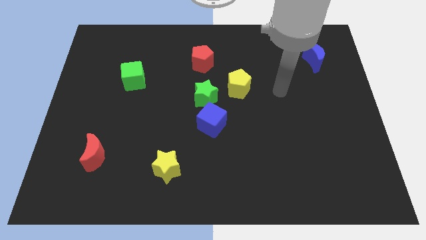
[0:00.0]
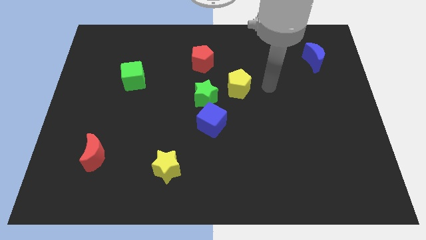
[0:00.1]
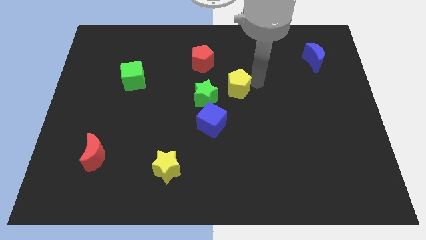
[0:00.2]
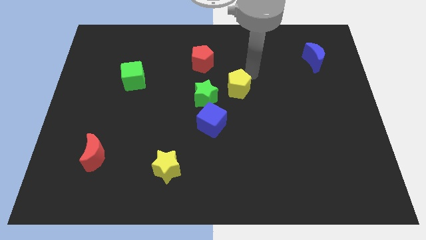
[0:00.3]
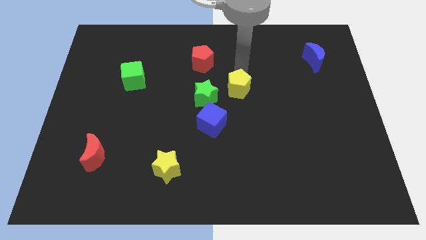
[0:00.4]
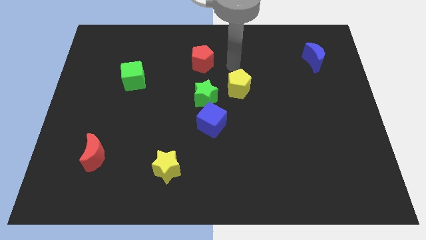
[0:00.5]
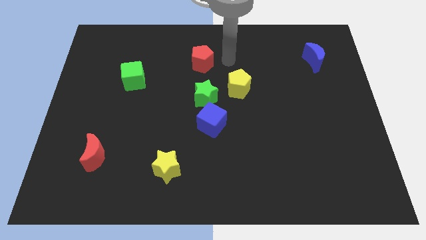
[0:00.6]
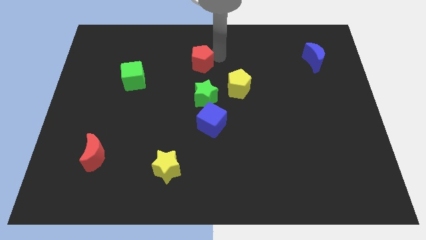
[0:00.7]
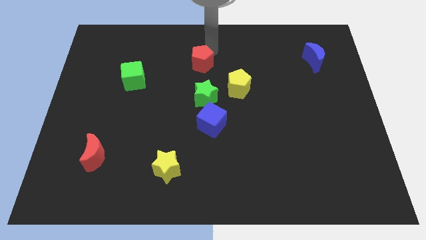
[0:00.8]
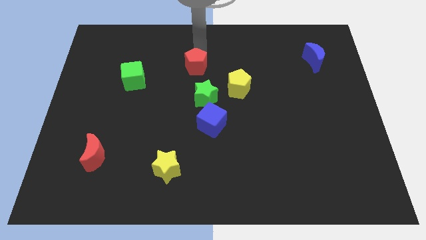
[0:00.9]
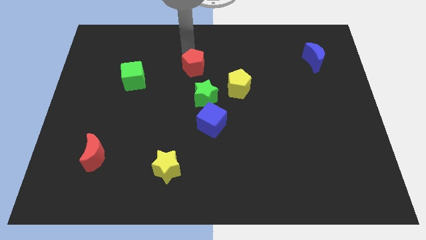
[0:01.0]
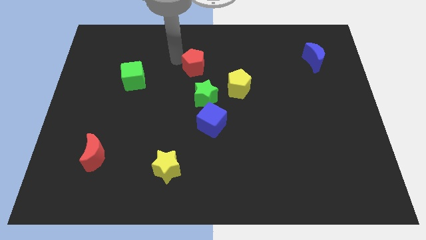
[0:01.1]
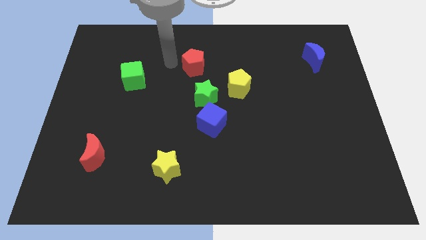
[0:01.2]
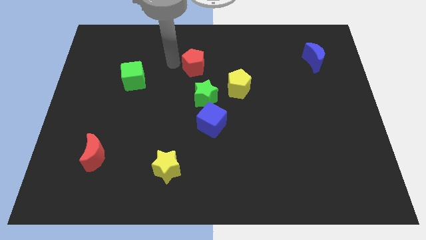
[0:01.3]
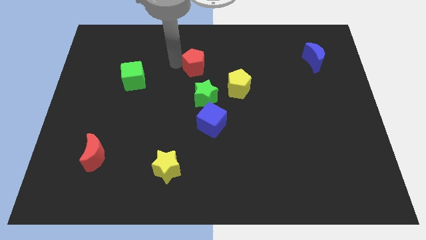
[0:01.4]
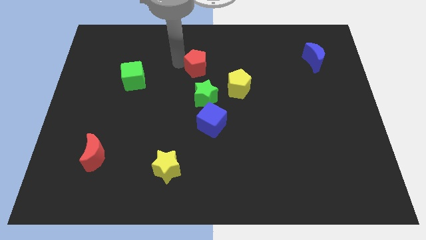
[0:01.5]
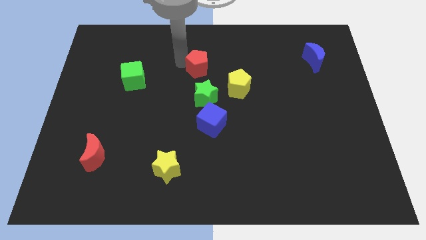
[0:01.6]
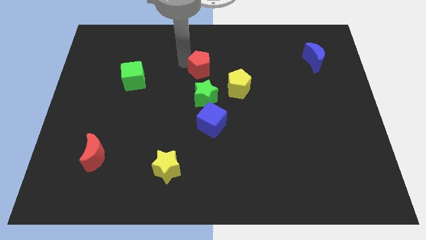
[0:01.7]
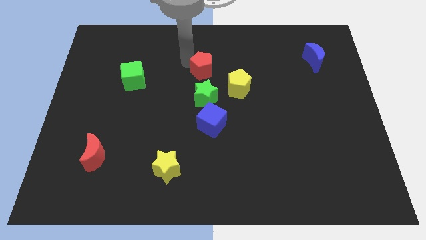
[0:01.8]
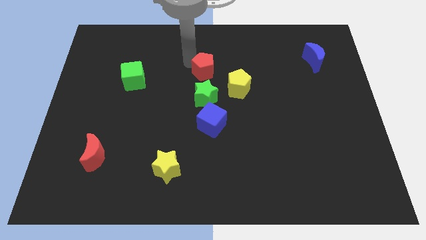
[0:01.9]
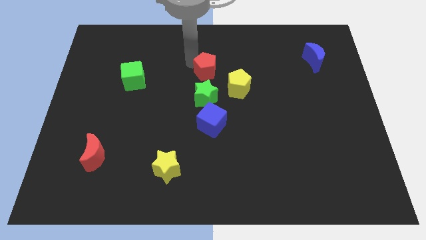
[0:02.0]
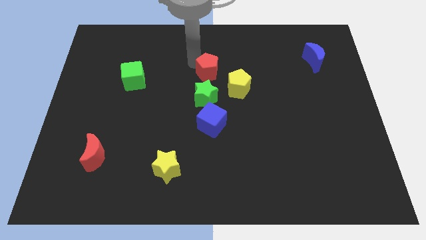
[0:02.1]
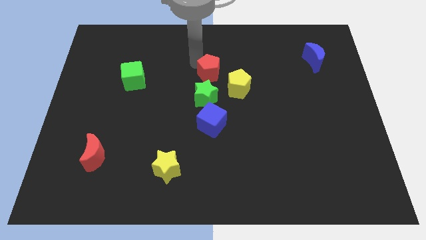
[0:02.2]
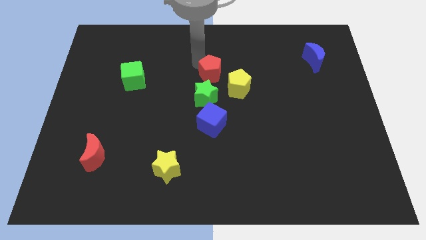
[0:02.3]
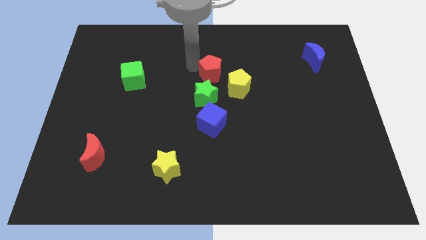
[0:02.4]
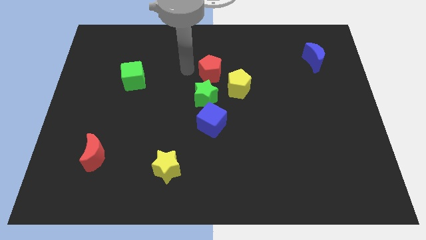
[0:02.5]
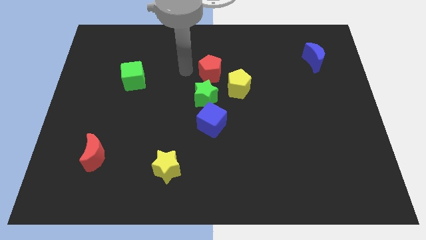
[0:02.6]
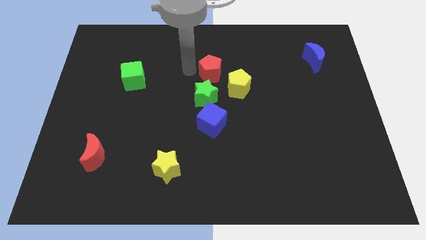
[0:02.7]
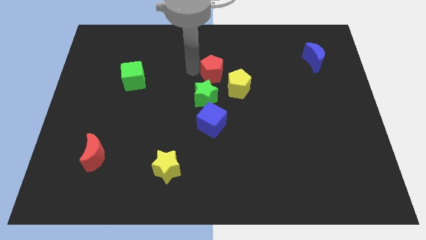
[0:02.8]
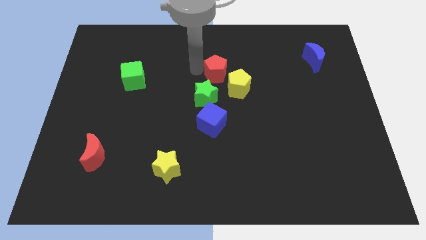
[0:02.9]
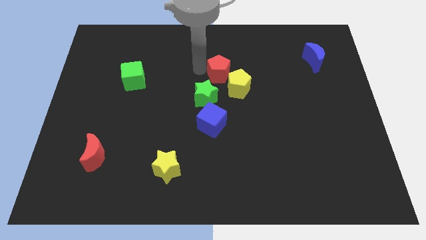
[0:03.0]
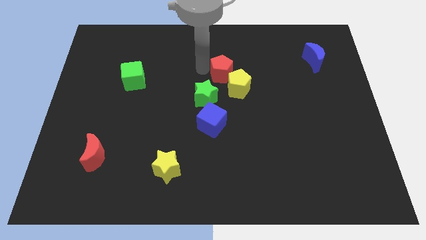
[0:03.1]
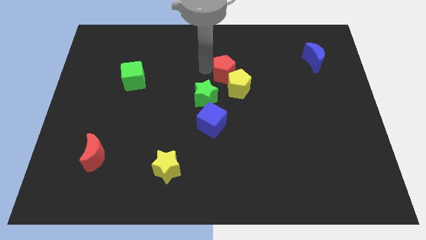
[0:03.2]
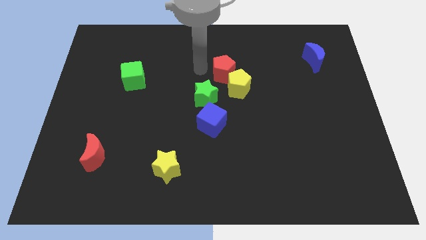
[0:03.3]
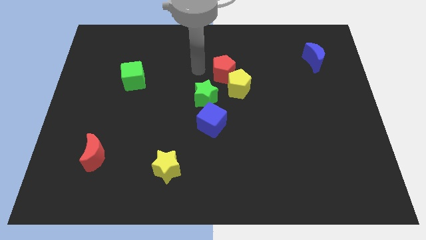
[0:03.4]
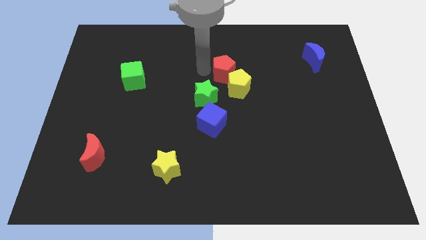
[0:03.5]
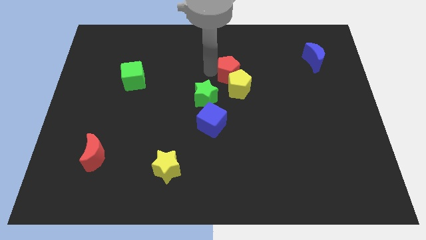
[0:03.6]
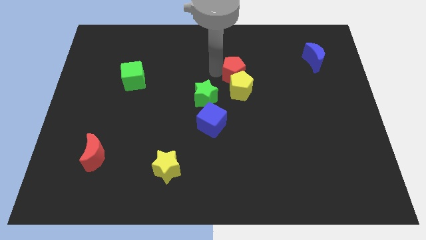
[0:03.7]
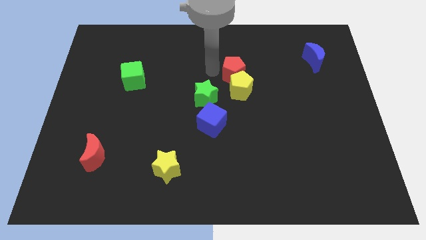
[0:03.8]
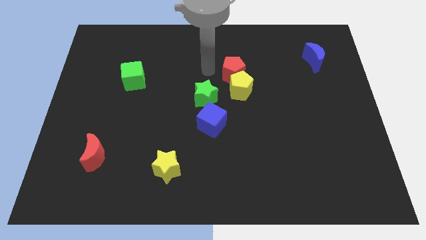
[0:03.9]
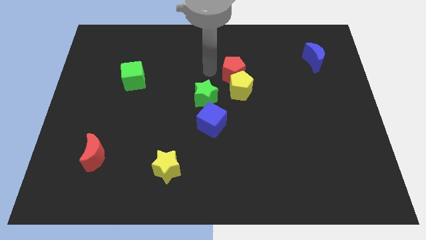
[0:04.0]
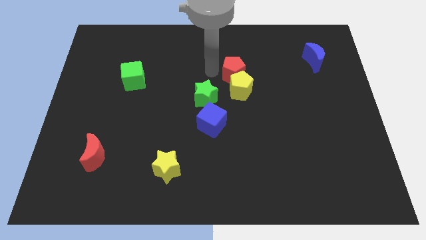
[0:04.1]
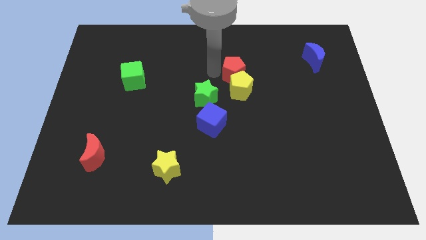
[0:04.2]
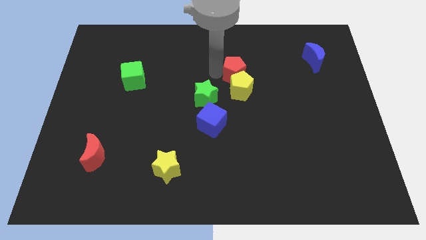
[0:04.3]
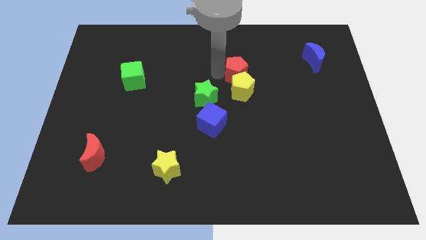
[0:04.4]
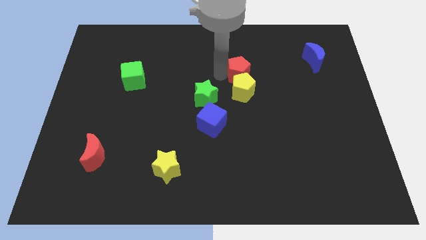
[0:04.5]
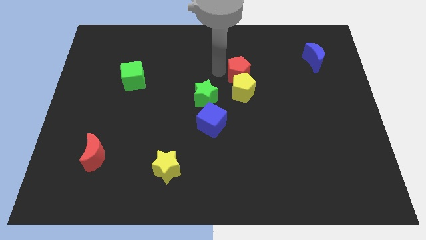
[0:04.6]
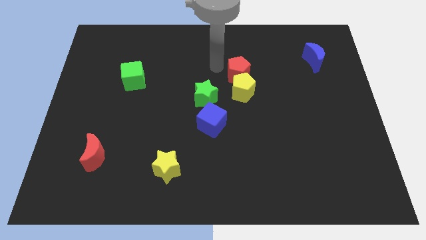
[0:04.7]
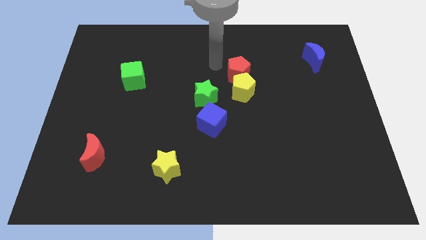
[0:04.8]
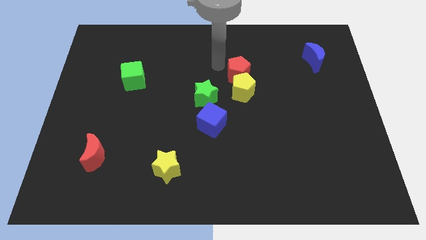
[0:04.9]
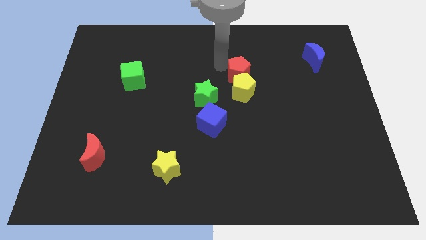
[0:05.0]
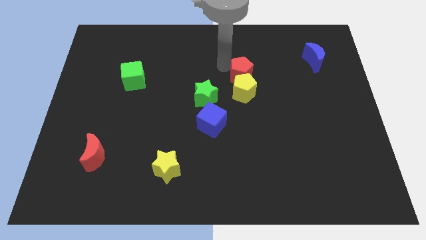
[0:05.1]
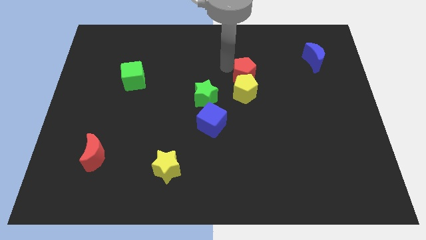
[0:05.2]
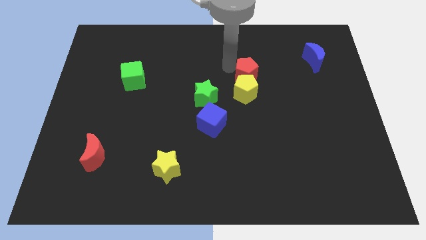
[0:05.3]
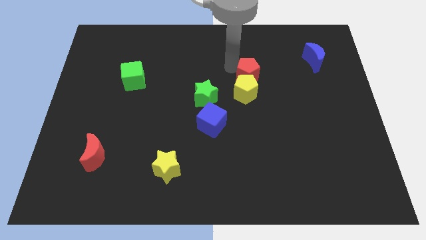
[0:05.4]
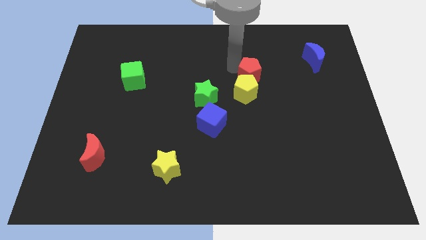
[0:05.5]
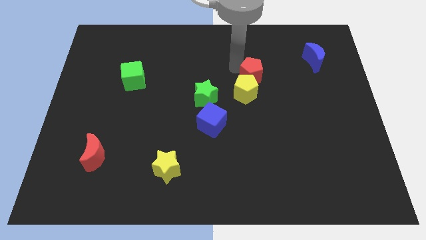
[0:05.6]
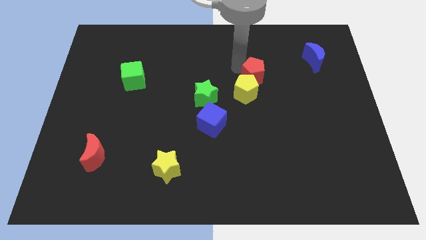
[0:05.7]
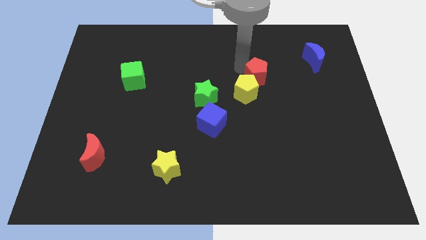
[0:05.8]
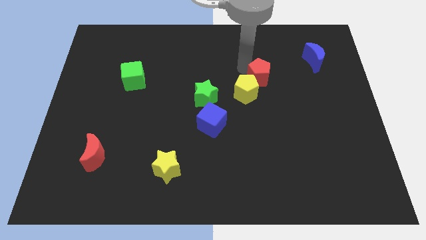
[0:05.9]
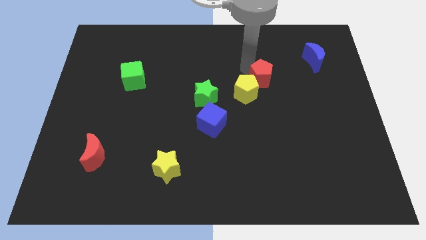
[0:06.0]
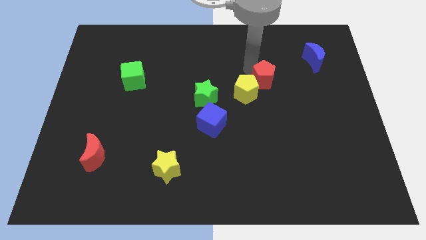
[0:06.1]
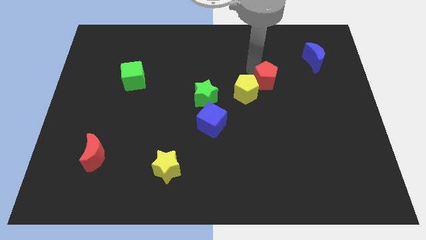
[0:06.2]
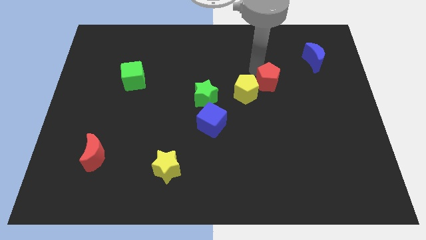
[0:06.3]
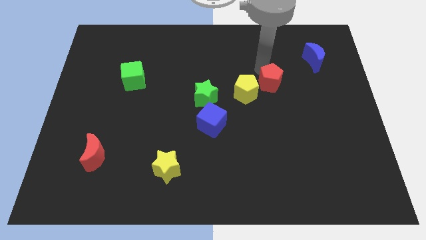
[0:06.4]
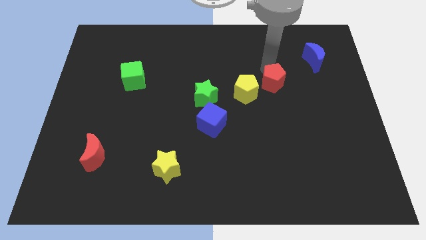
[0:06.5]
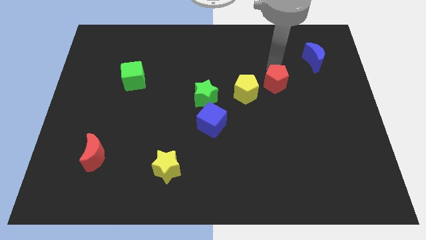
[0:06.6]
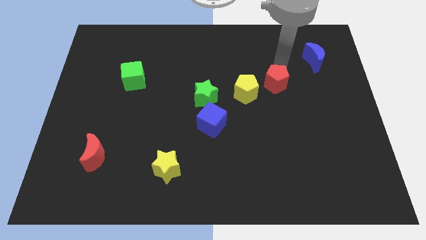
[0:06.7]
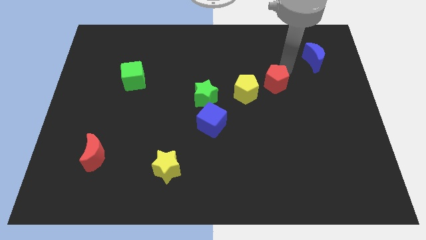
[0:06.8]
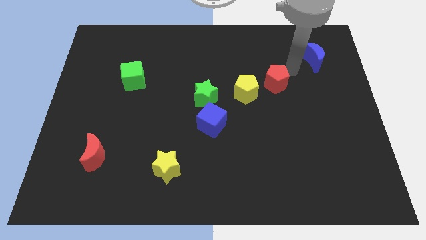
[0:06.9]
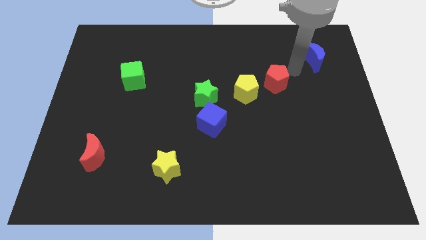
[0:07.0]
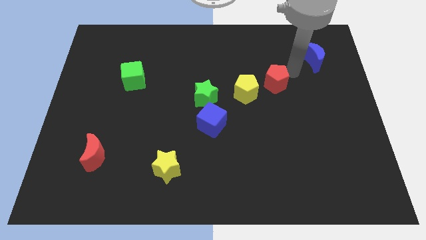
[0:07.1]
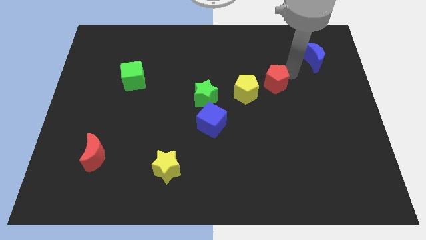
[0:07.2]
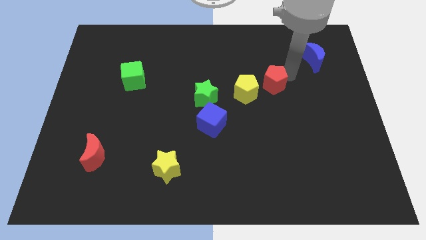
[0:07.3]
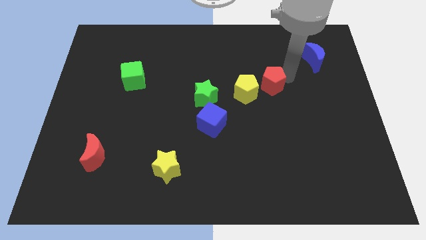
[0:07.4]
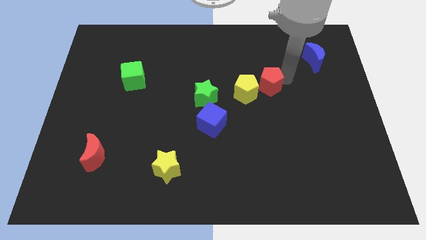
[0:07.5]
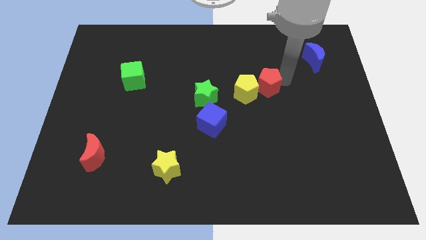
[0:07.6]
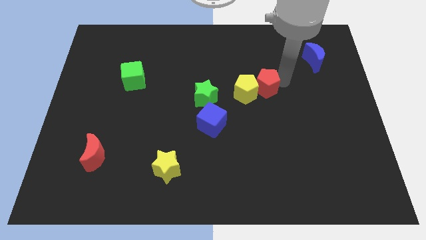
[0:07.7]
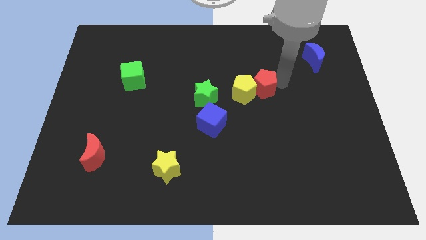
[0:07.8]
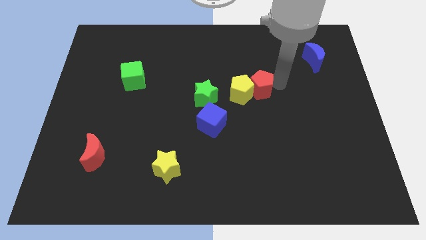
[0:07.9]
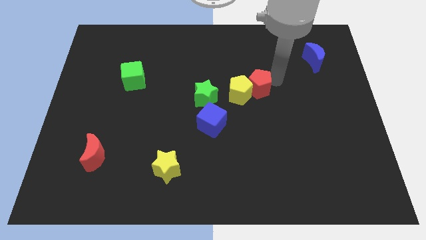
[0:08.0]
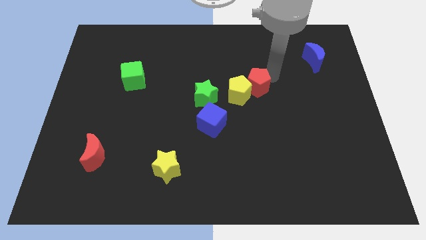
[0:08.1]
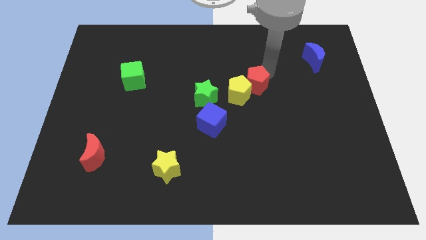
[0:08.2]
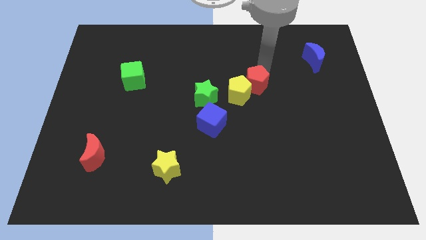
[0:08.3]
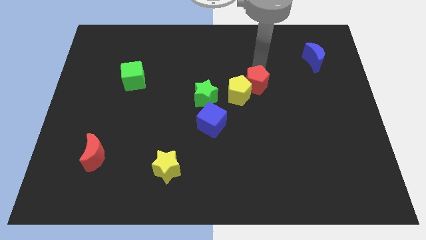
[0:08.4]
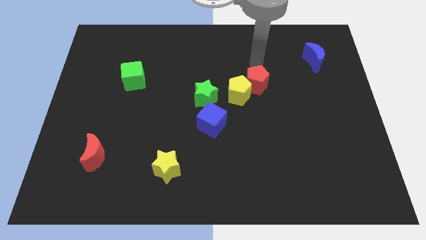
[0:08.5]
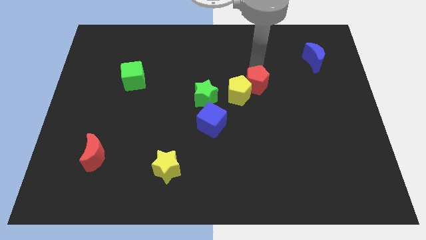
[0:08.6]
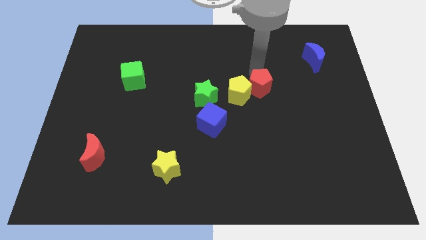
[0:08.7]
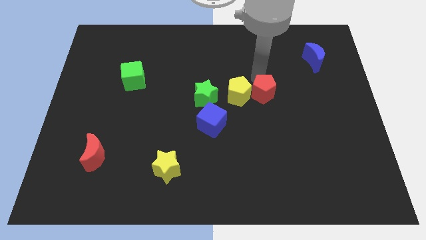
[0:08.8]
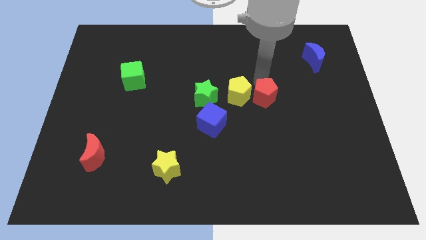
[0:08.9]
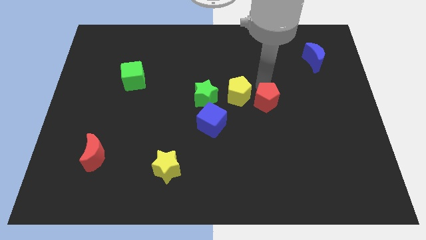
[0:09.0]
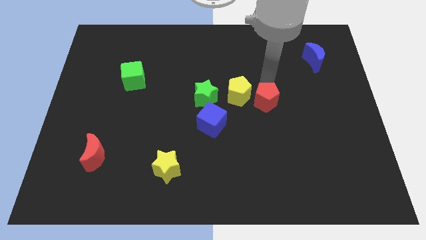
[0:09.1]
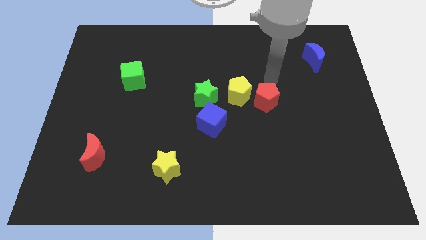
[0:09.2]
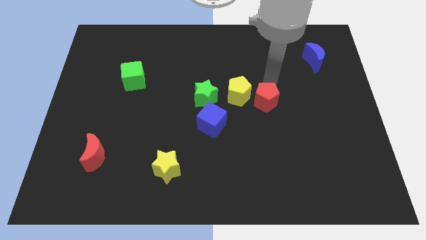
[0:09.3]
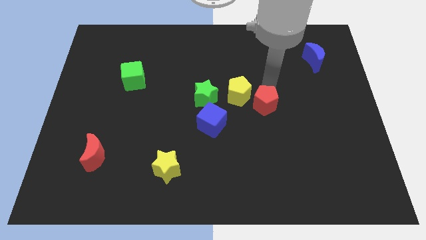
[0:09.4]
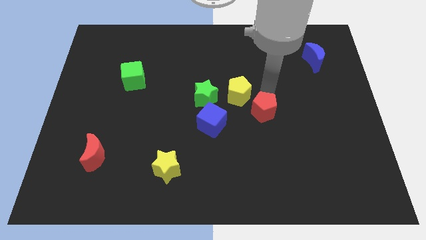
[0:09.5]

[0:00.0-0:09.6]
push the red pentagon to the right of the blue cube
